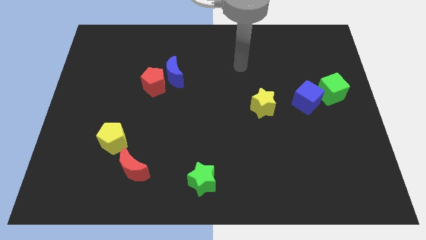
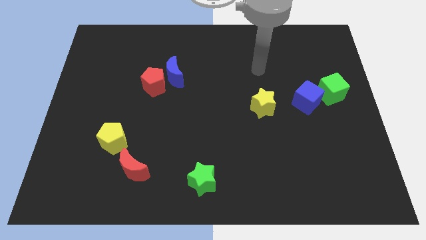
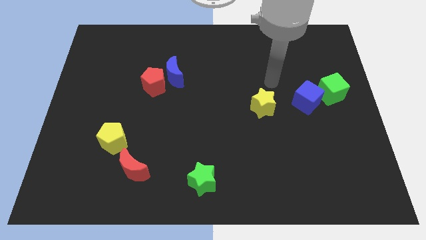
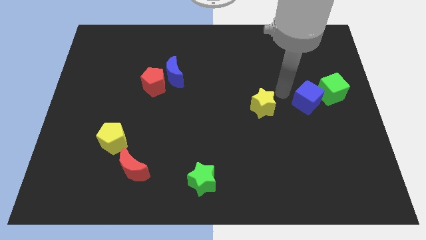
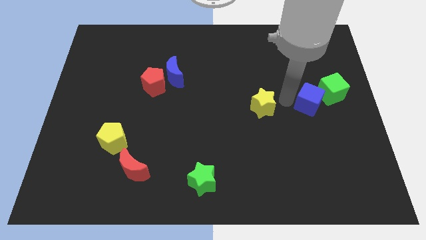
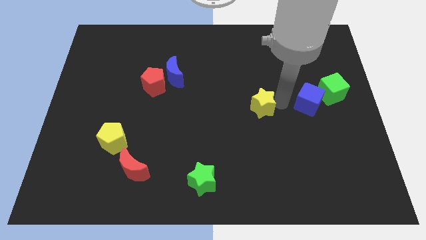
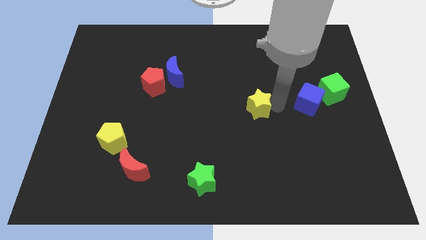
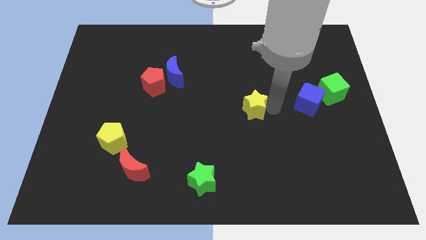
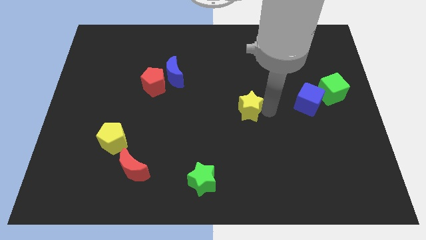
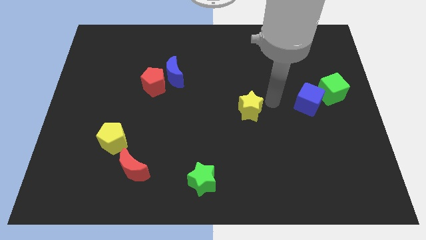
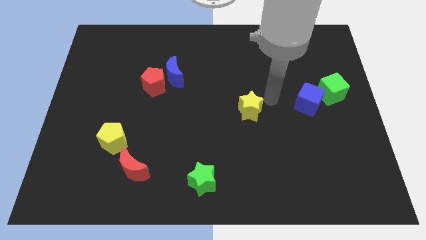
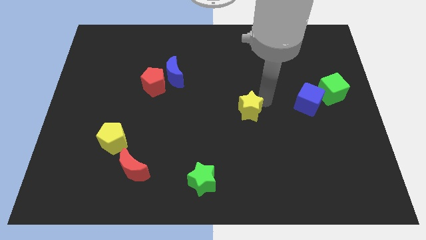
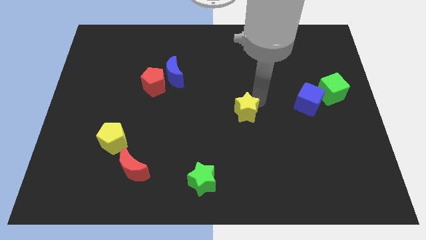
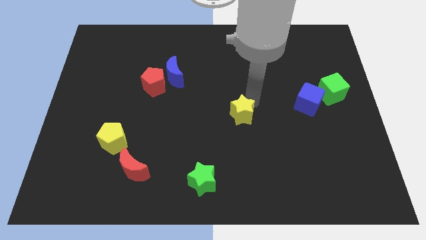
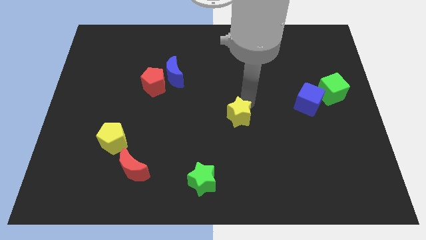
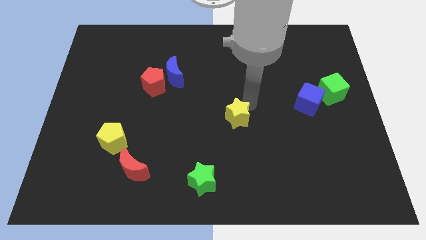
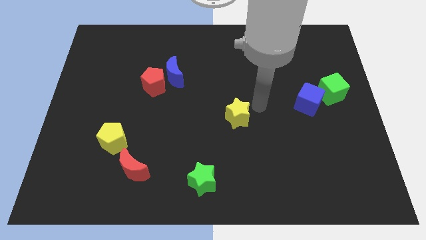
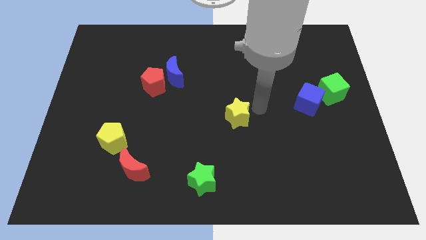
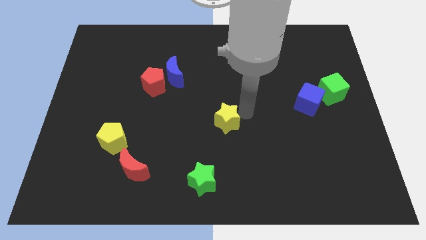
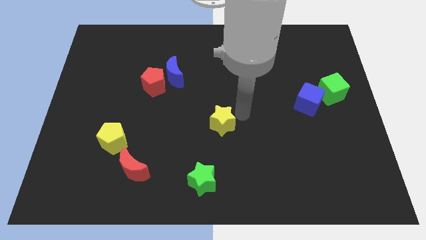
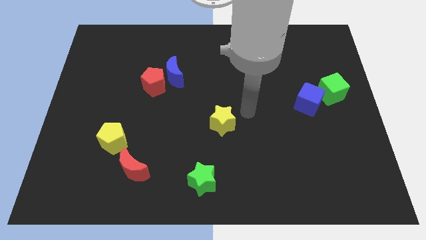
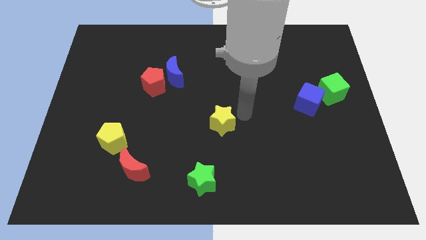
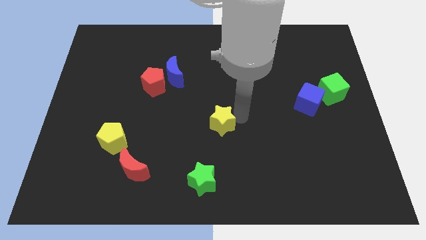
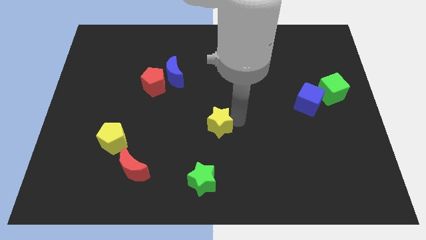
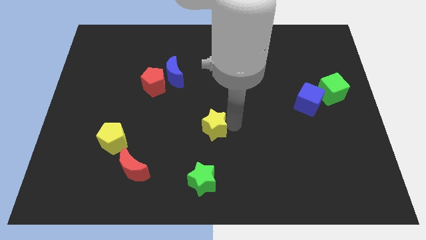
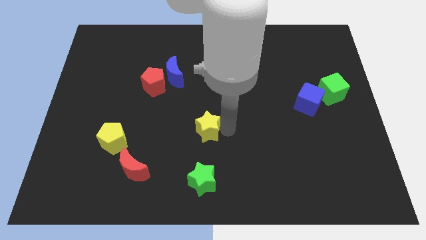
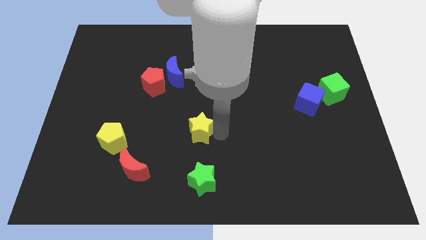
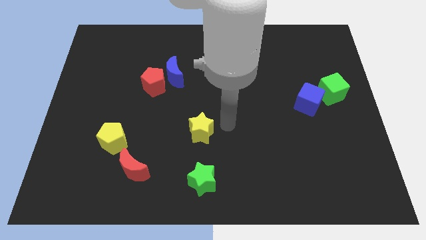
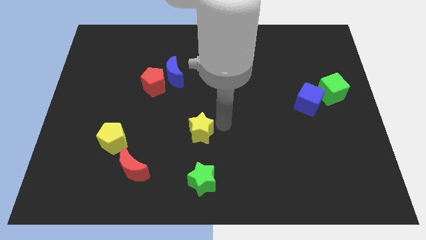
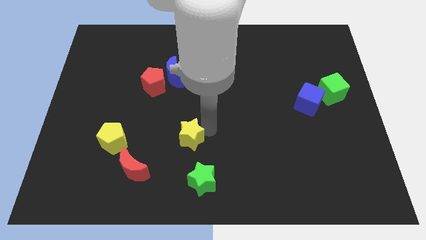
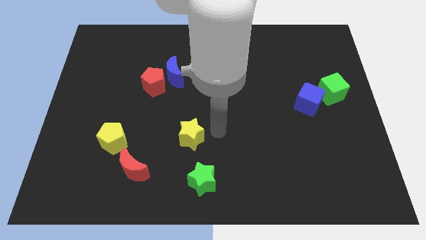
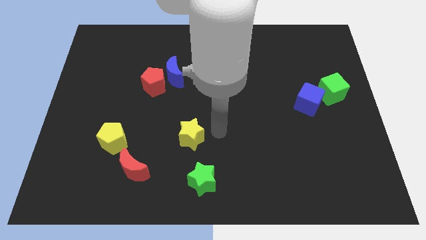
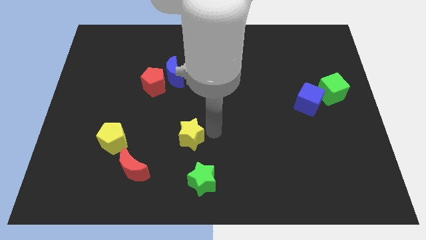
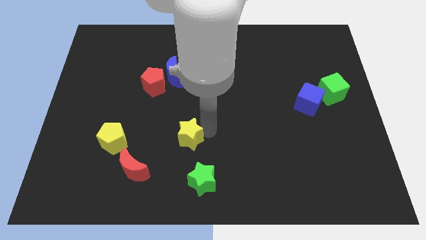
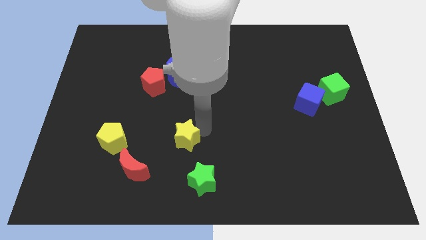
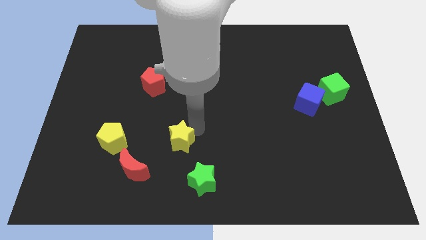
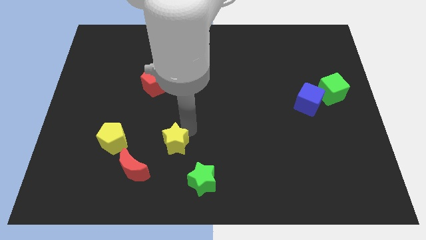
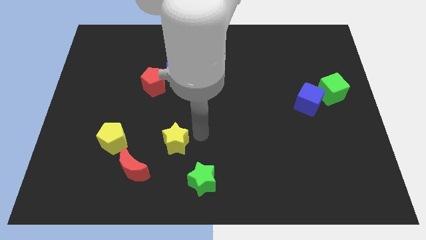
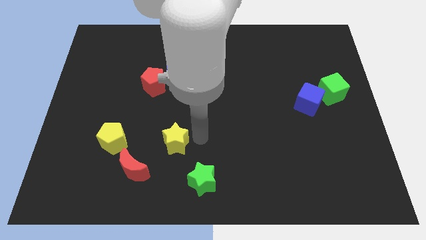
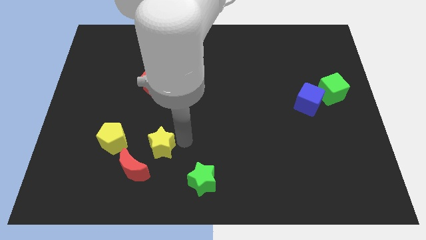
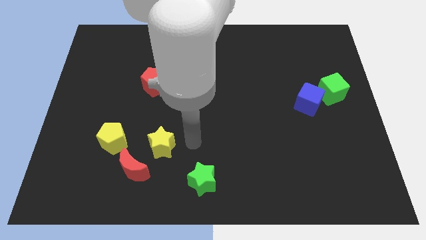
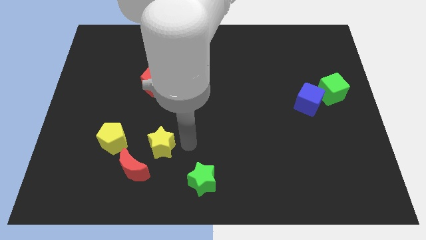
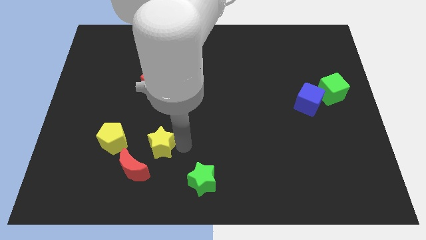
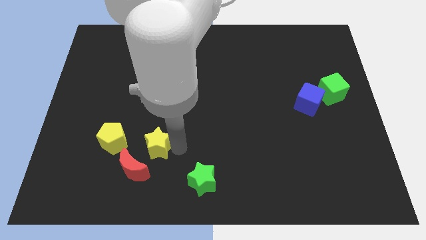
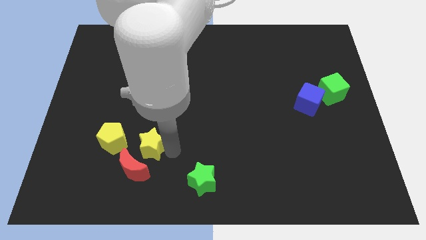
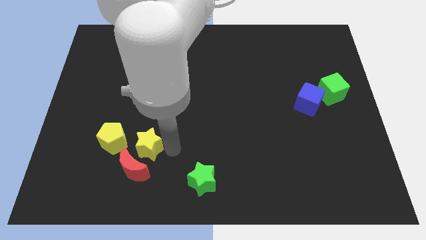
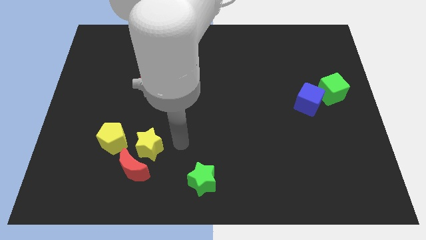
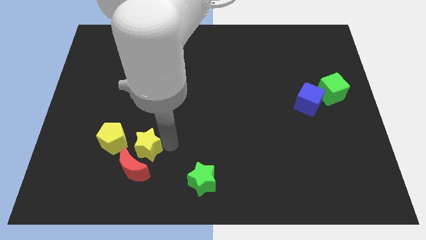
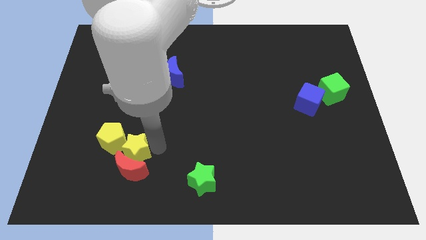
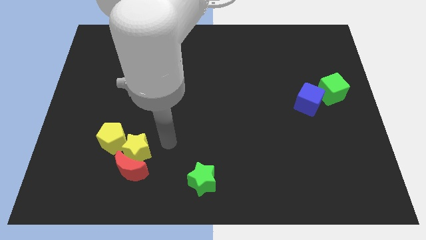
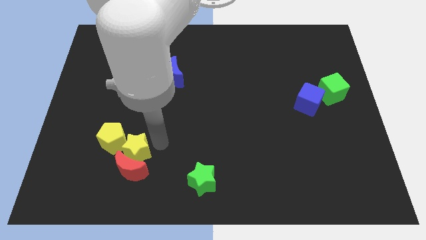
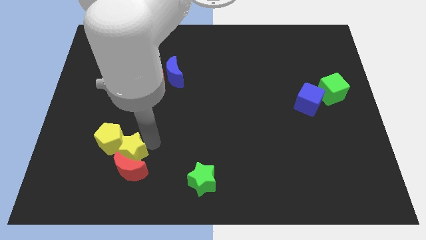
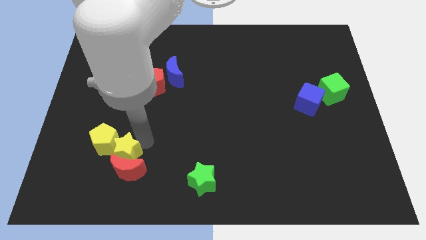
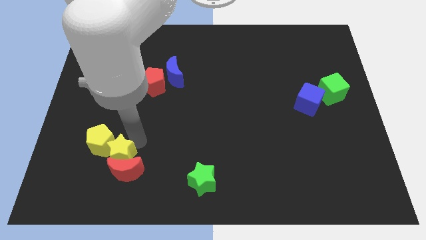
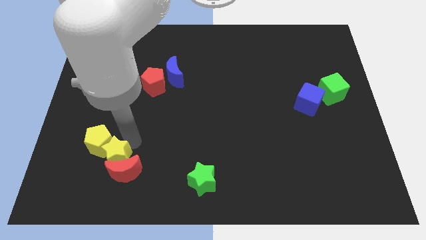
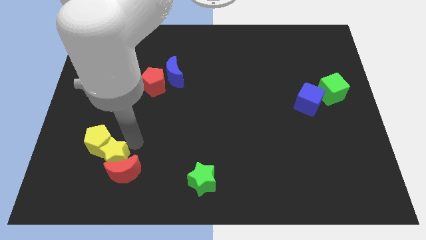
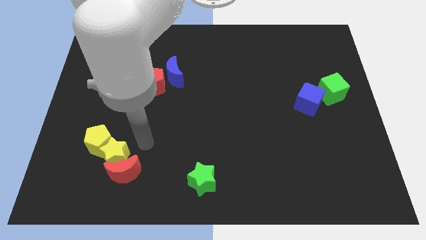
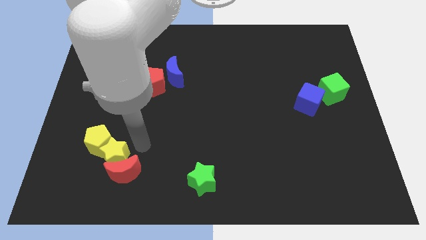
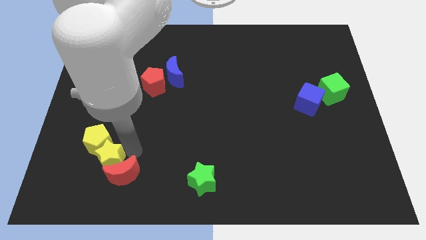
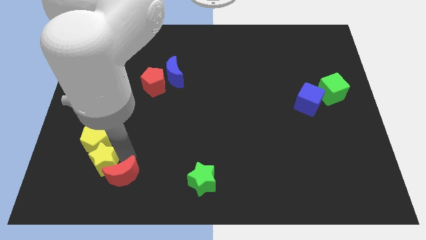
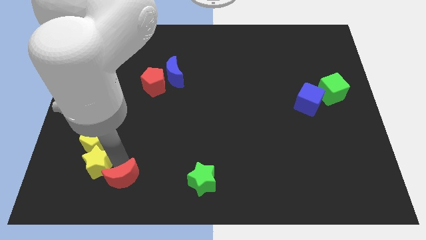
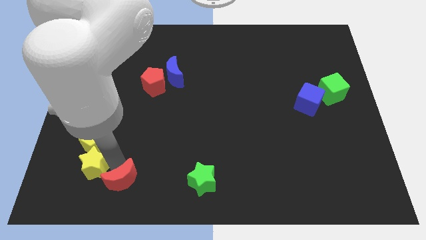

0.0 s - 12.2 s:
put the yellow star to the bottom left of the yellow pentagon

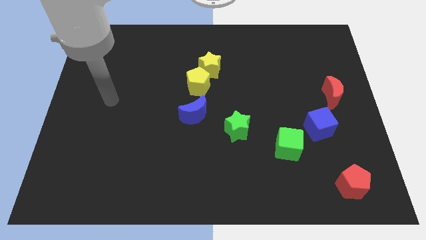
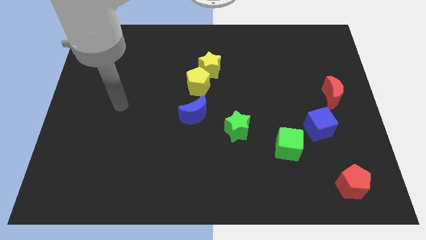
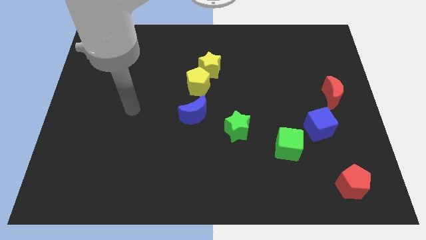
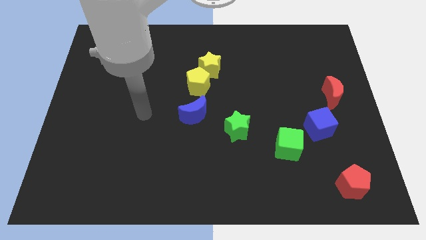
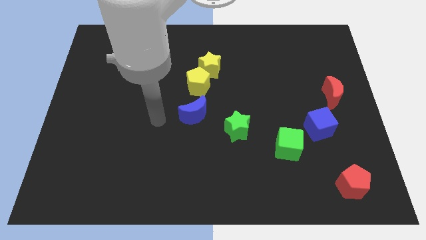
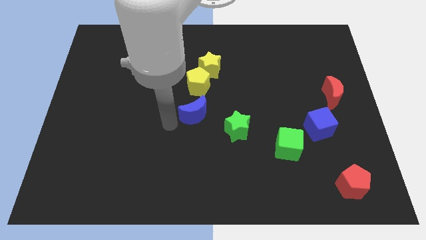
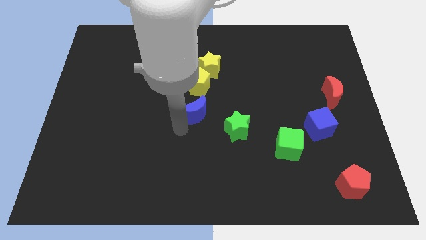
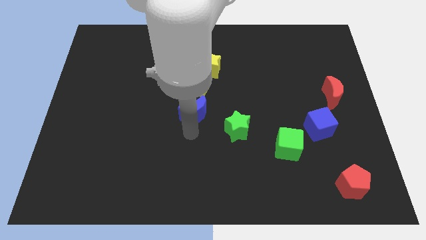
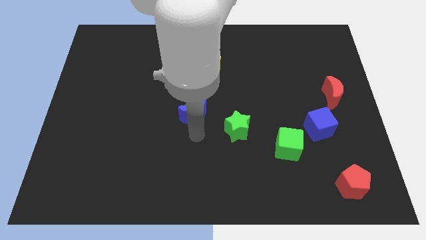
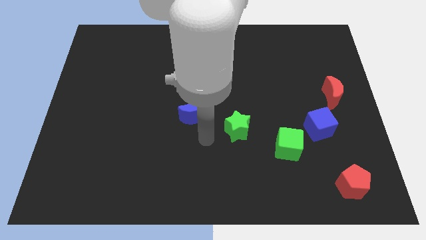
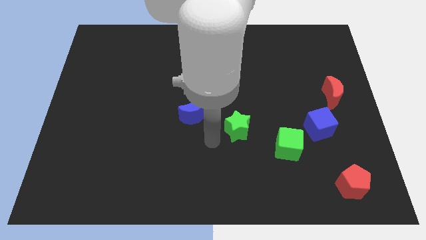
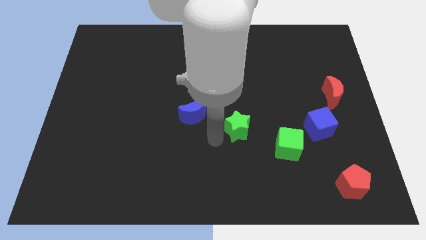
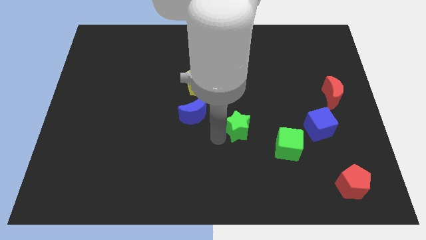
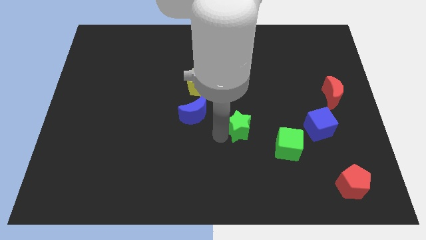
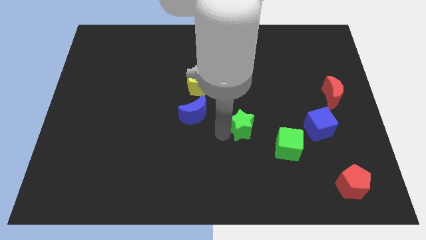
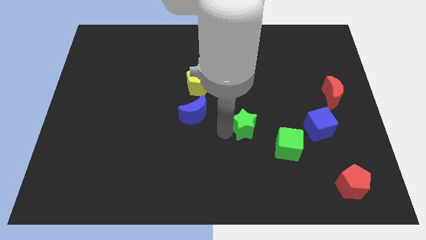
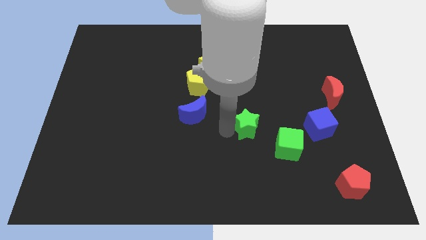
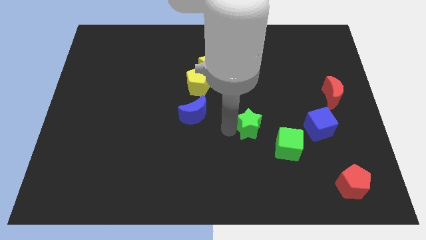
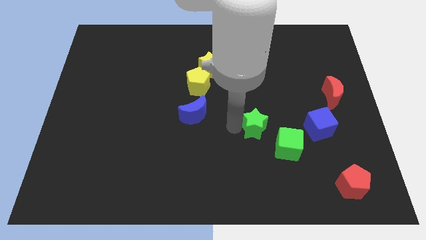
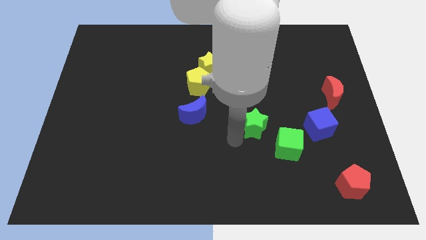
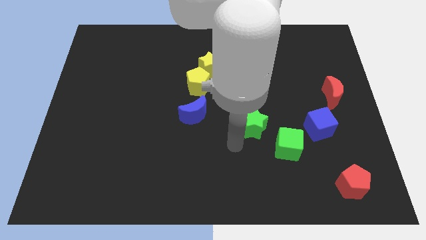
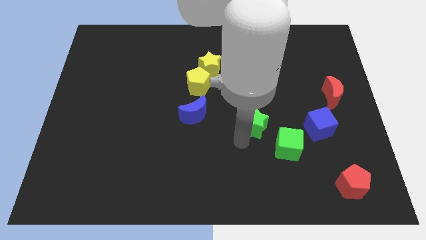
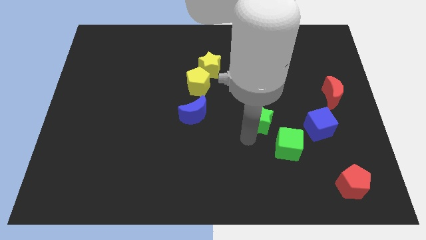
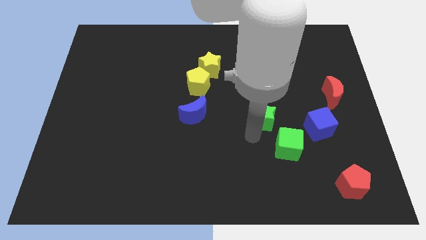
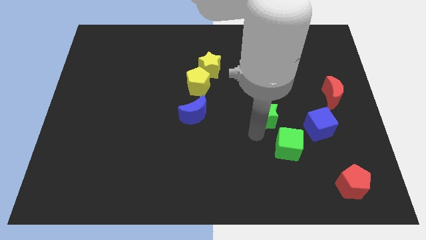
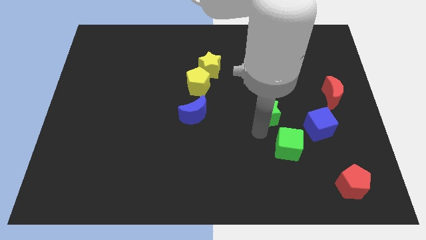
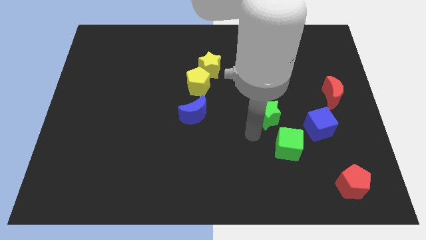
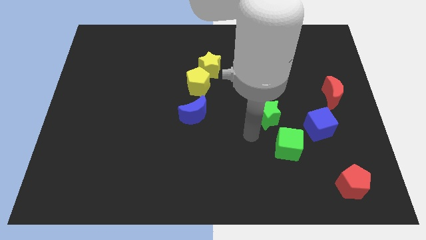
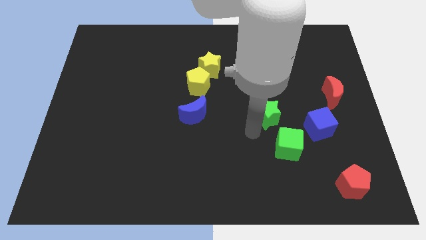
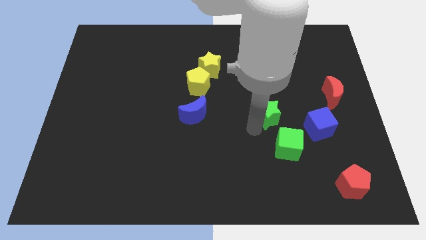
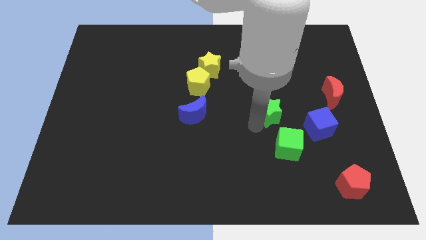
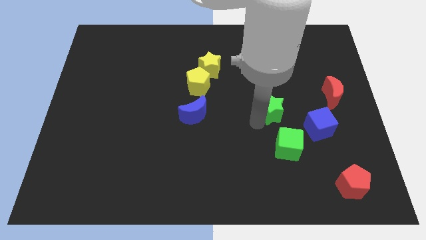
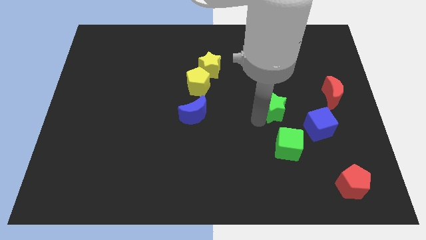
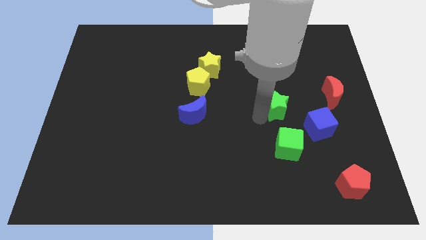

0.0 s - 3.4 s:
slide the green star to the left of the red moon
